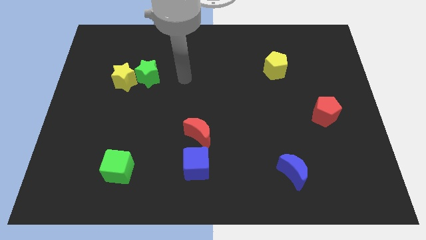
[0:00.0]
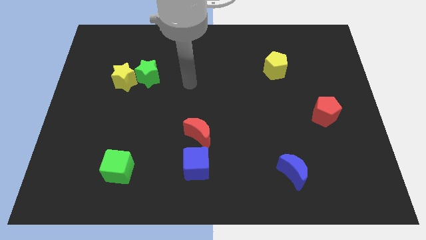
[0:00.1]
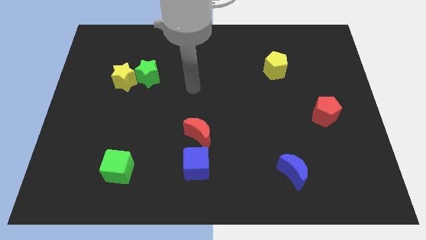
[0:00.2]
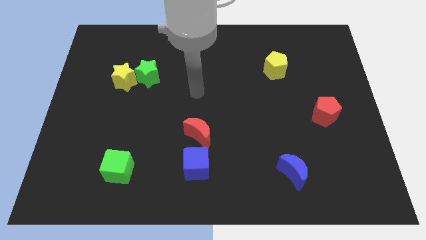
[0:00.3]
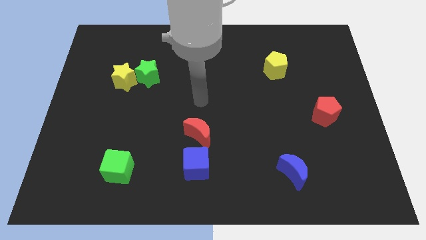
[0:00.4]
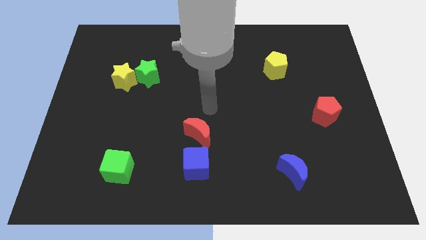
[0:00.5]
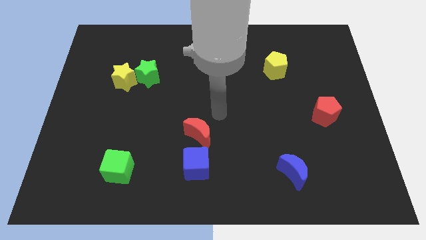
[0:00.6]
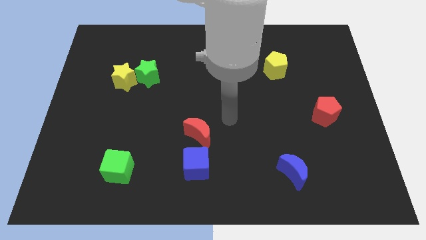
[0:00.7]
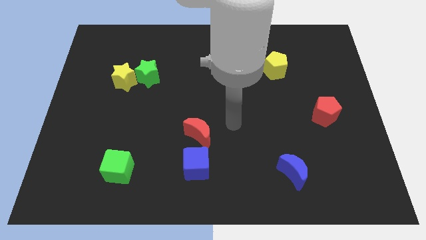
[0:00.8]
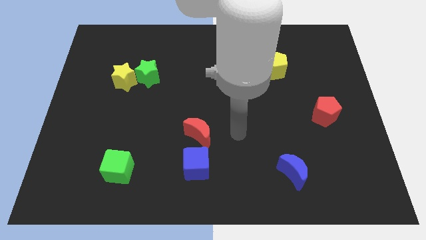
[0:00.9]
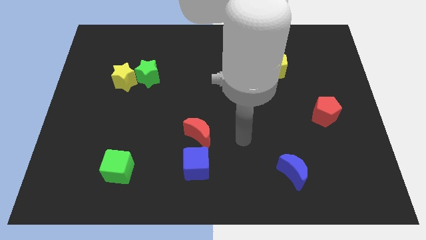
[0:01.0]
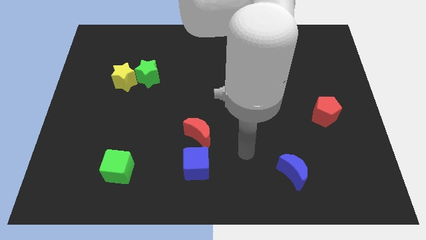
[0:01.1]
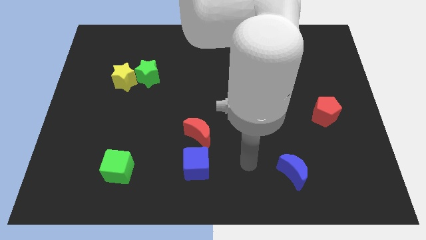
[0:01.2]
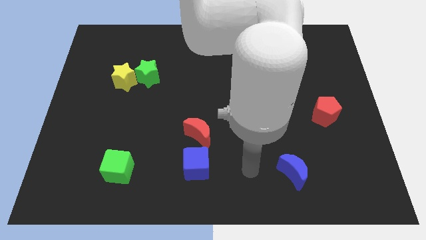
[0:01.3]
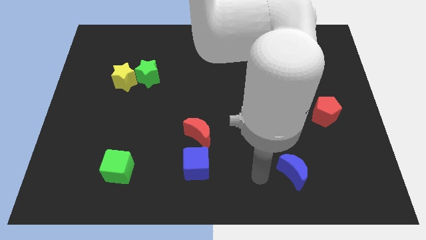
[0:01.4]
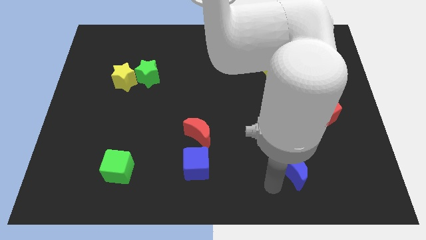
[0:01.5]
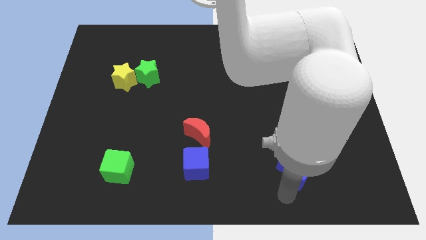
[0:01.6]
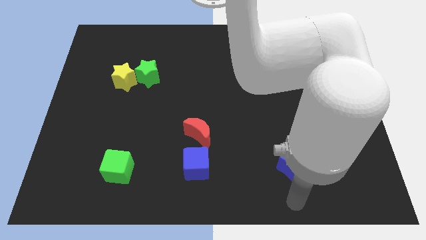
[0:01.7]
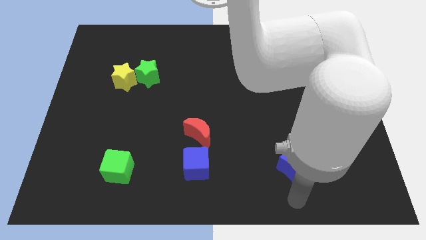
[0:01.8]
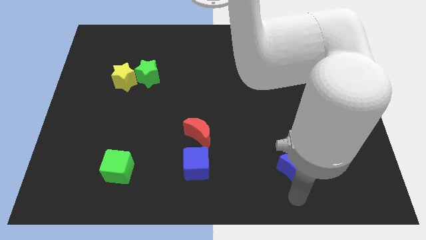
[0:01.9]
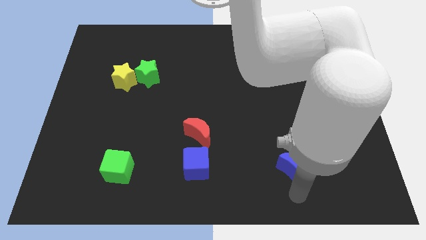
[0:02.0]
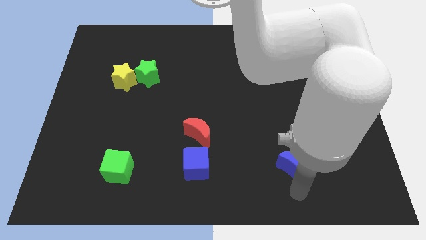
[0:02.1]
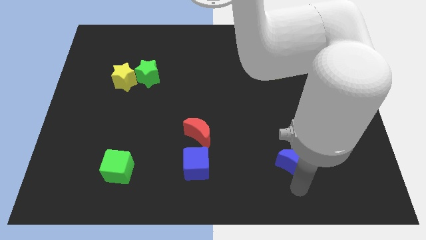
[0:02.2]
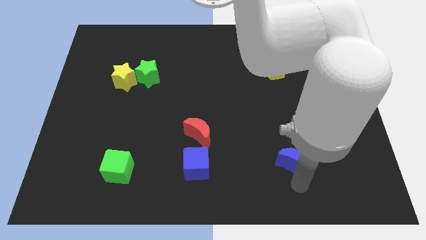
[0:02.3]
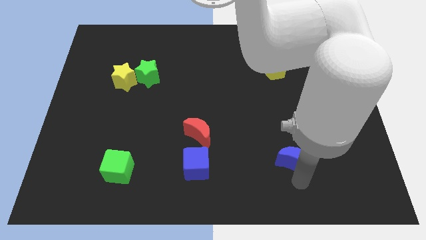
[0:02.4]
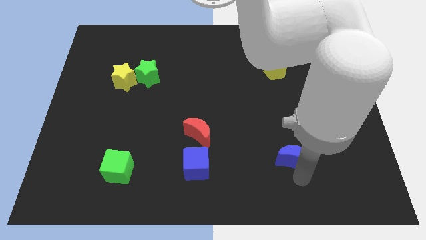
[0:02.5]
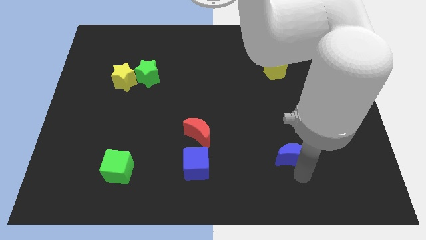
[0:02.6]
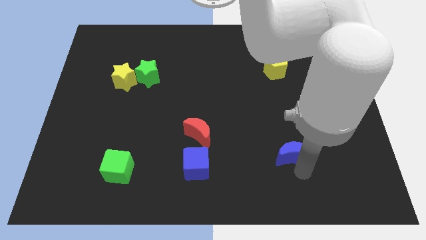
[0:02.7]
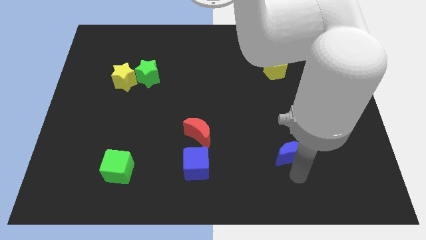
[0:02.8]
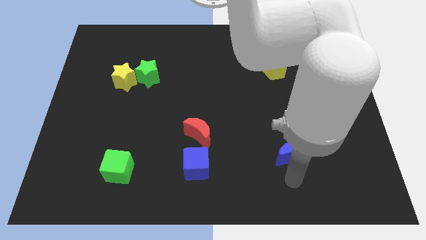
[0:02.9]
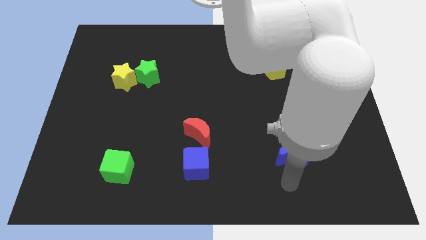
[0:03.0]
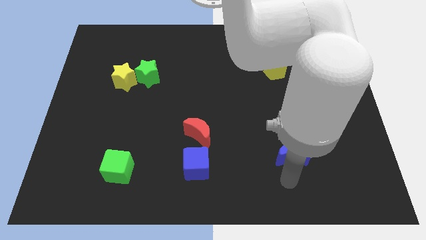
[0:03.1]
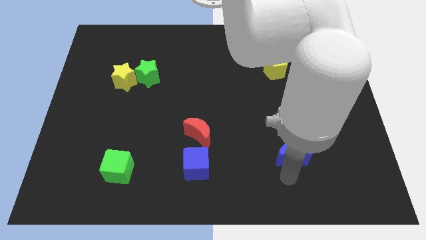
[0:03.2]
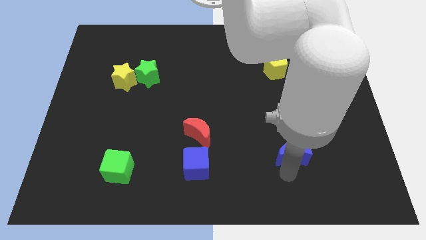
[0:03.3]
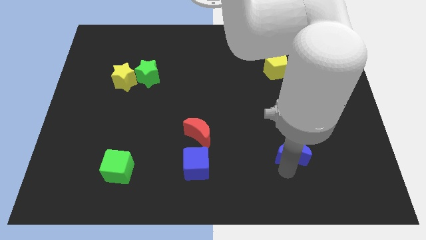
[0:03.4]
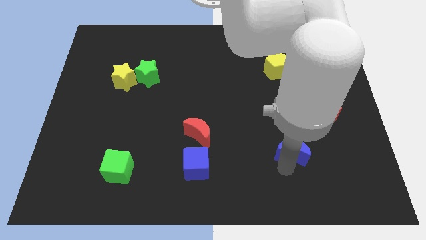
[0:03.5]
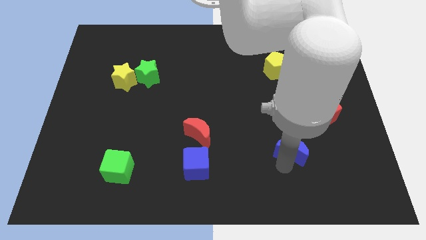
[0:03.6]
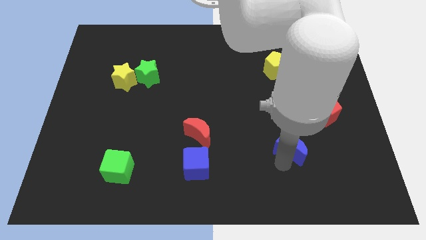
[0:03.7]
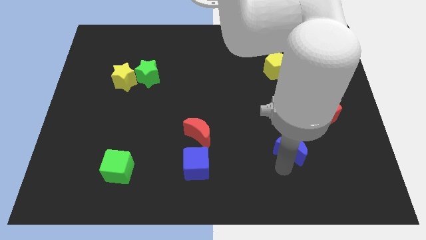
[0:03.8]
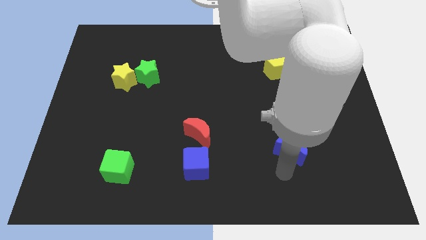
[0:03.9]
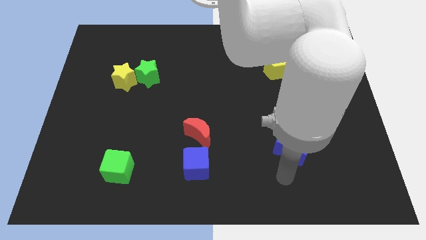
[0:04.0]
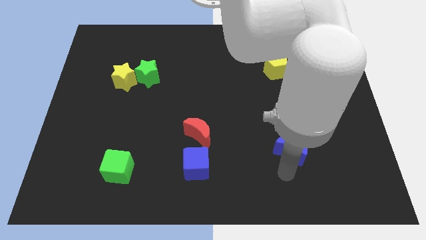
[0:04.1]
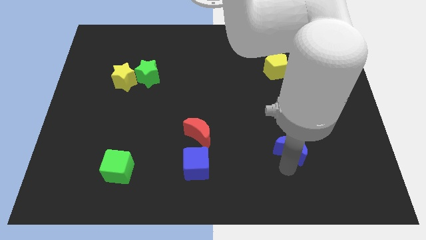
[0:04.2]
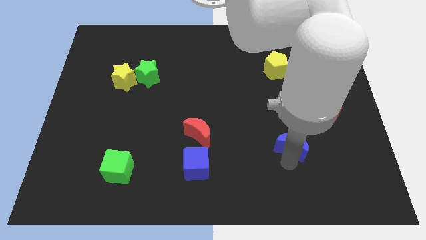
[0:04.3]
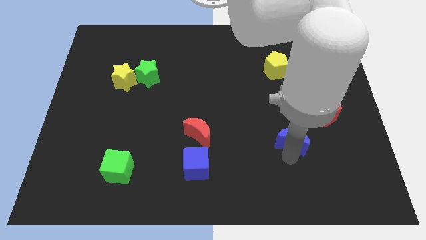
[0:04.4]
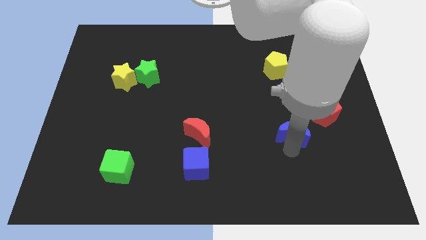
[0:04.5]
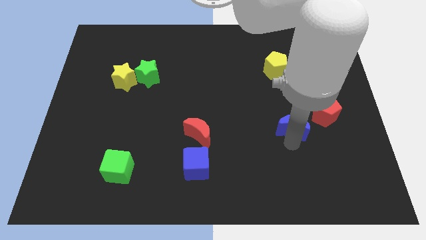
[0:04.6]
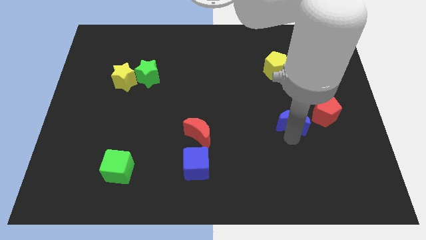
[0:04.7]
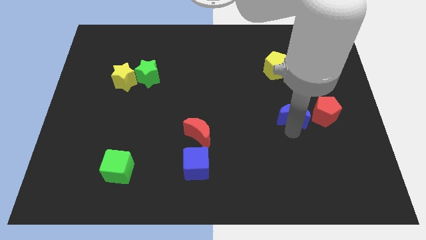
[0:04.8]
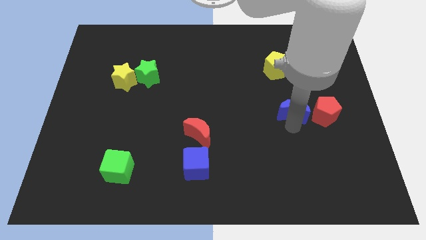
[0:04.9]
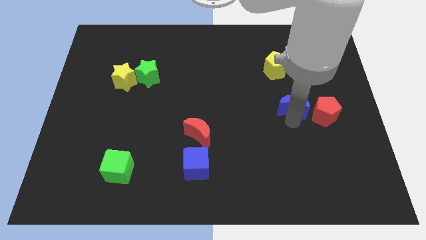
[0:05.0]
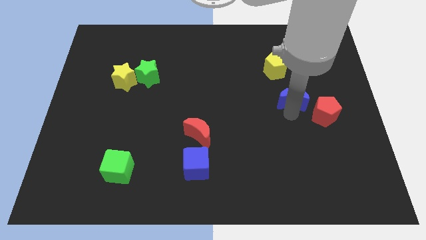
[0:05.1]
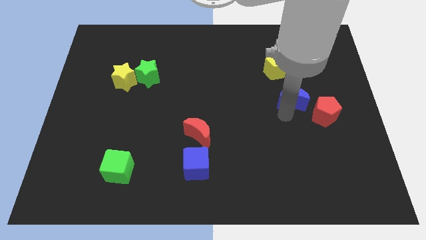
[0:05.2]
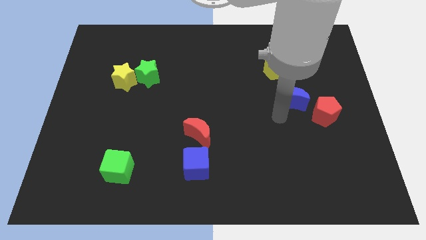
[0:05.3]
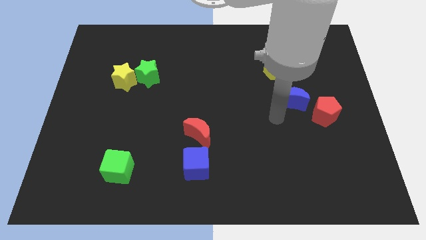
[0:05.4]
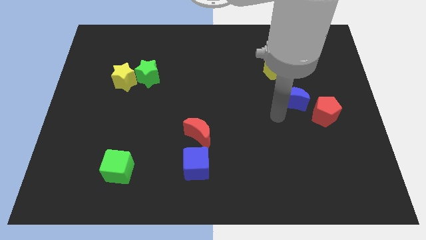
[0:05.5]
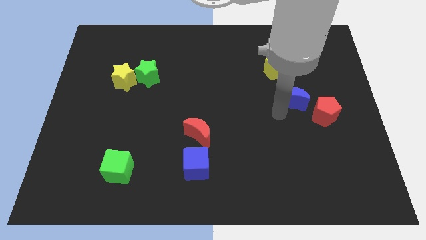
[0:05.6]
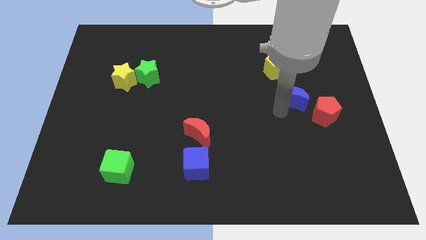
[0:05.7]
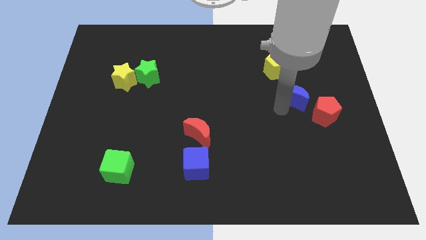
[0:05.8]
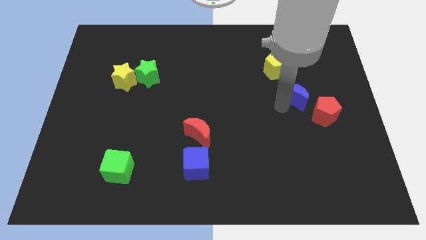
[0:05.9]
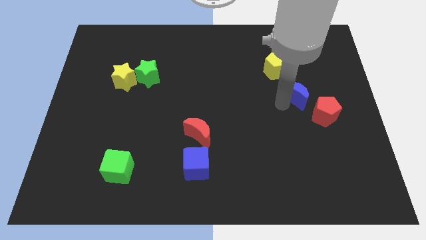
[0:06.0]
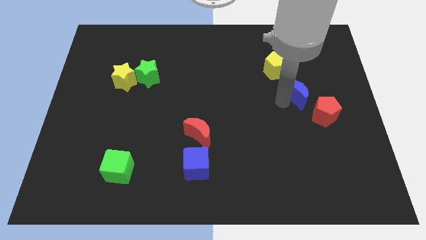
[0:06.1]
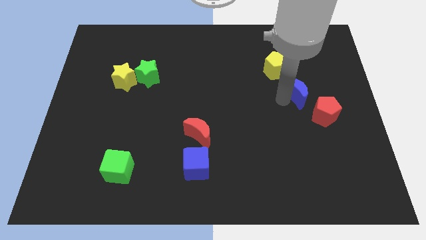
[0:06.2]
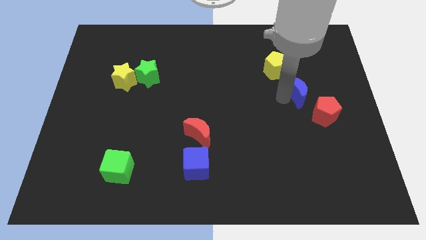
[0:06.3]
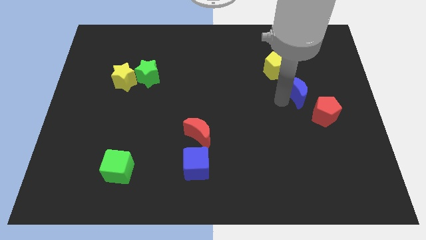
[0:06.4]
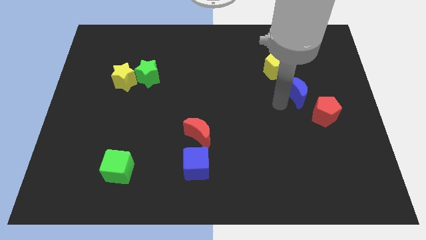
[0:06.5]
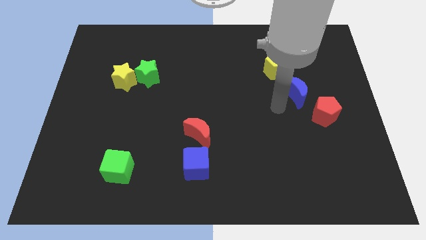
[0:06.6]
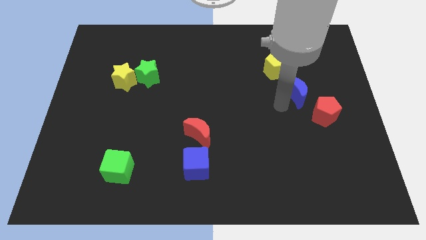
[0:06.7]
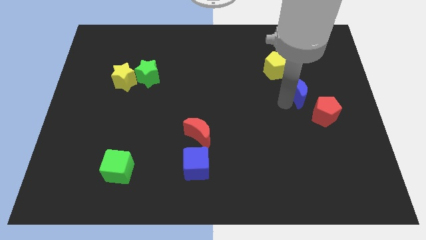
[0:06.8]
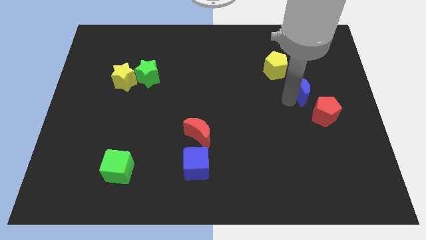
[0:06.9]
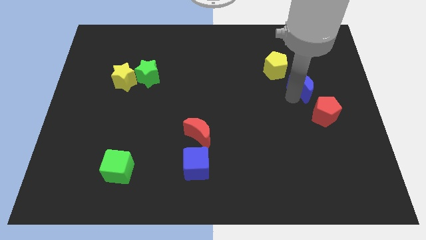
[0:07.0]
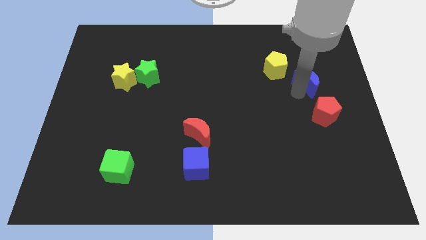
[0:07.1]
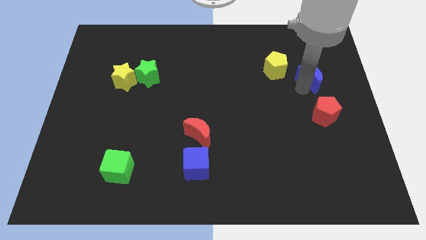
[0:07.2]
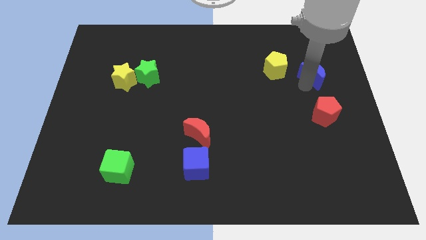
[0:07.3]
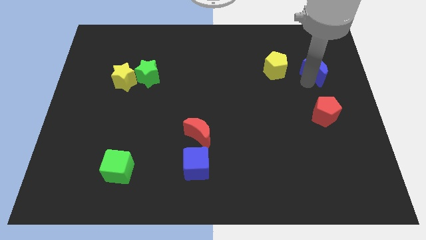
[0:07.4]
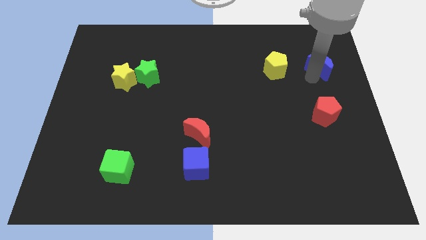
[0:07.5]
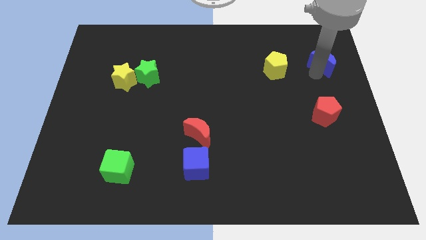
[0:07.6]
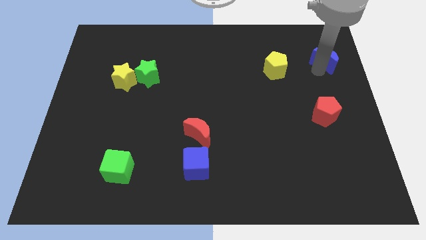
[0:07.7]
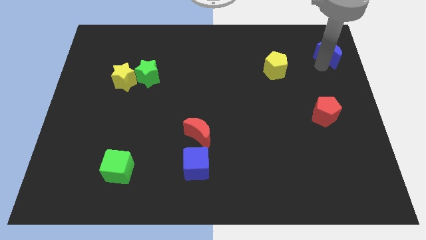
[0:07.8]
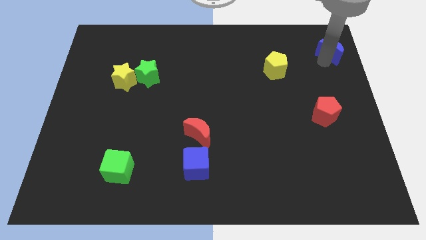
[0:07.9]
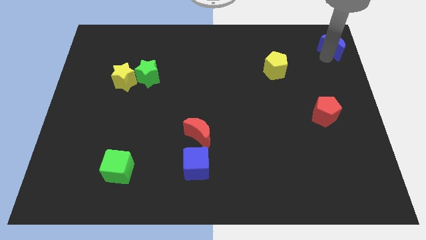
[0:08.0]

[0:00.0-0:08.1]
move the blue moon to the top right
